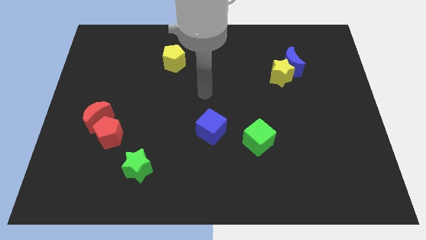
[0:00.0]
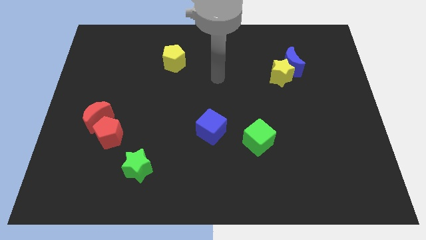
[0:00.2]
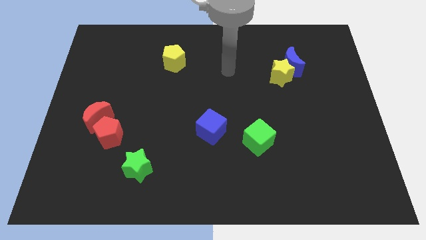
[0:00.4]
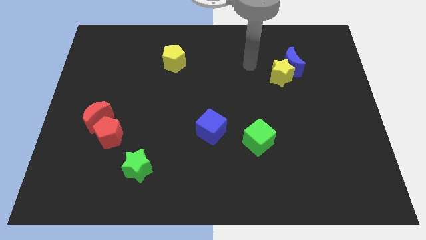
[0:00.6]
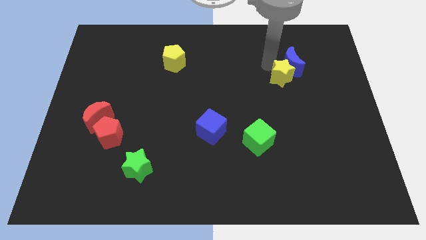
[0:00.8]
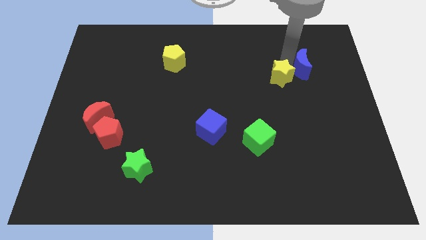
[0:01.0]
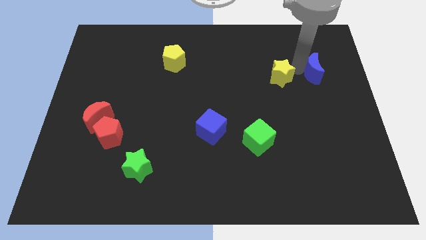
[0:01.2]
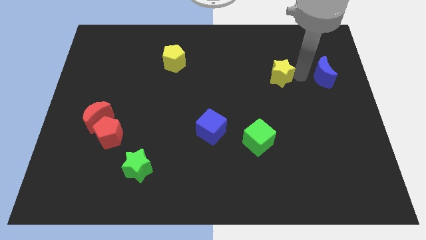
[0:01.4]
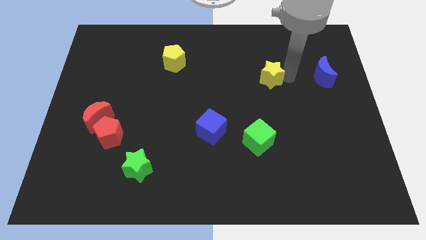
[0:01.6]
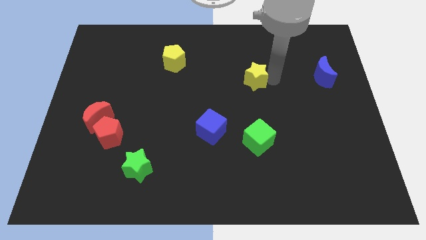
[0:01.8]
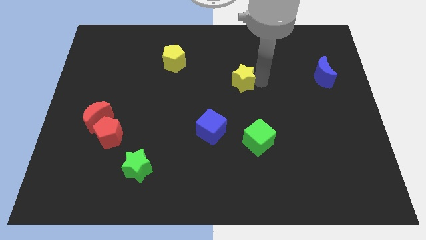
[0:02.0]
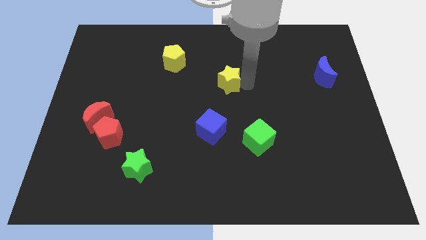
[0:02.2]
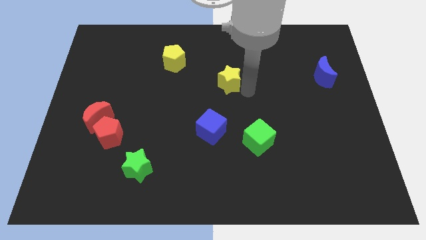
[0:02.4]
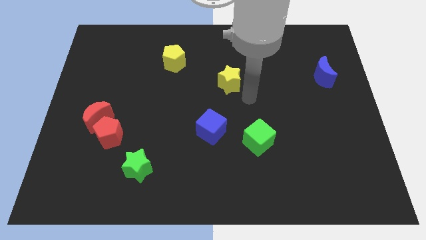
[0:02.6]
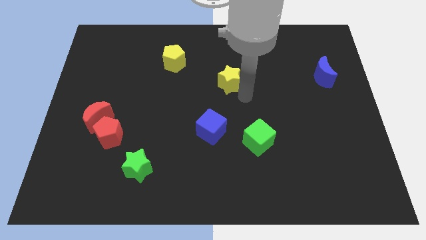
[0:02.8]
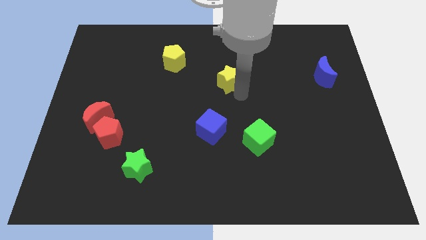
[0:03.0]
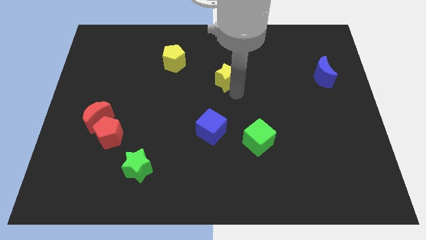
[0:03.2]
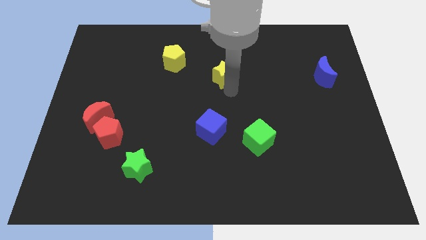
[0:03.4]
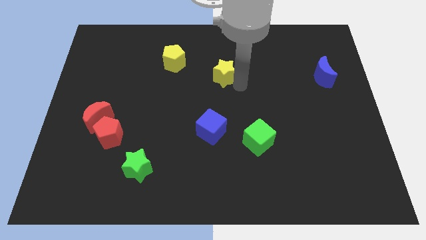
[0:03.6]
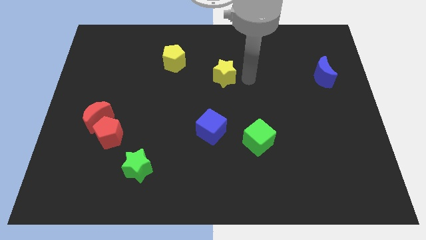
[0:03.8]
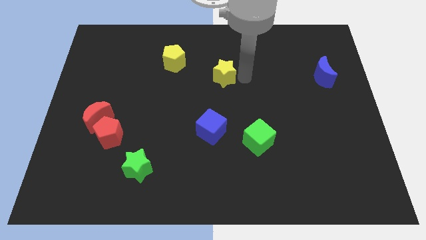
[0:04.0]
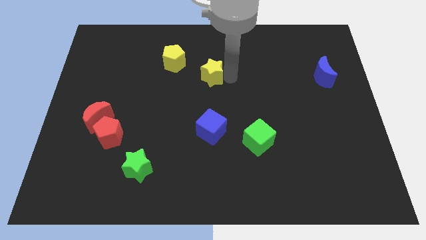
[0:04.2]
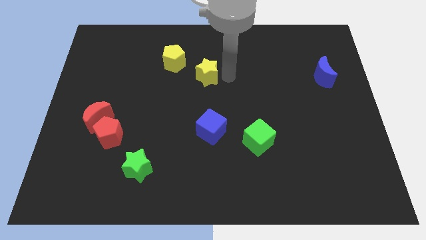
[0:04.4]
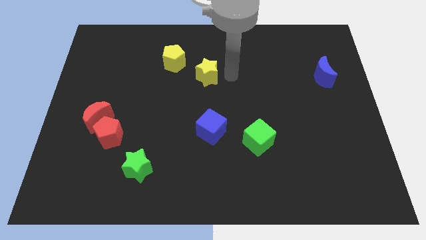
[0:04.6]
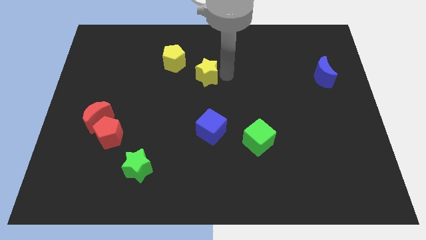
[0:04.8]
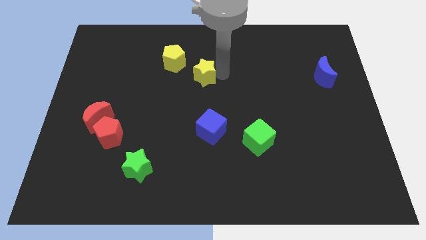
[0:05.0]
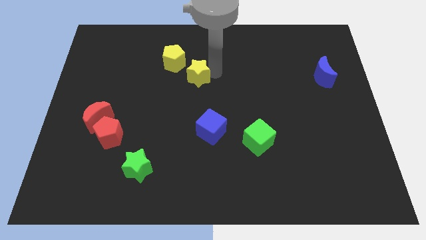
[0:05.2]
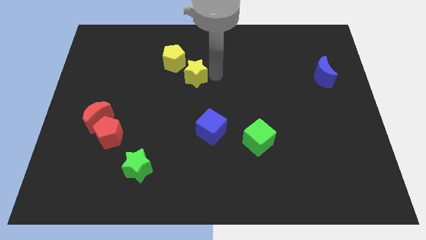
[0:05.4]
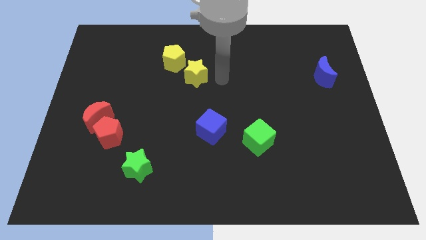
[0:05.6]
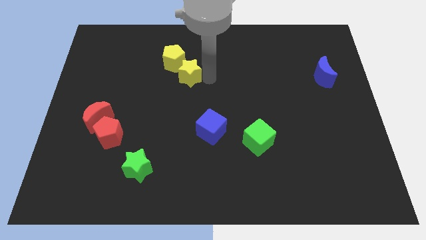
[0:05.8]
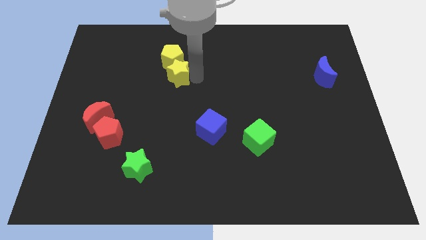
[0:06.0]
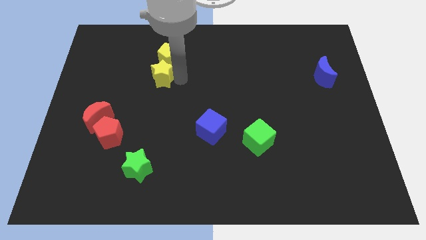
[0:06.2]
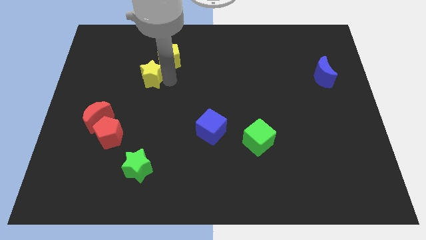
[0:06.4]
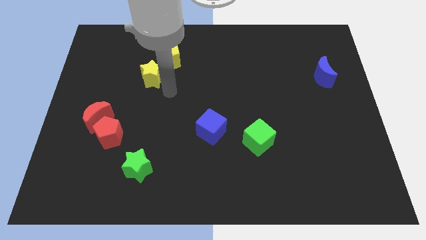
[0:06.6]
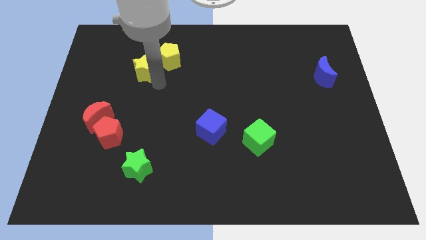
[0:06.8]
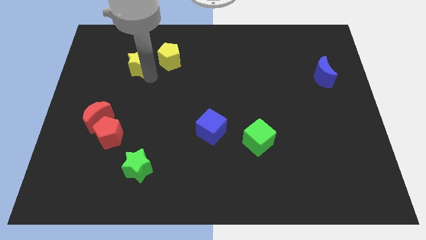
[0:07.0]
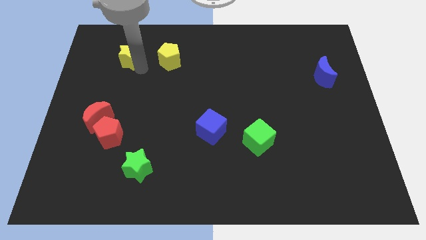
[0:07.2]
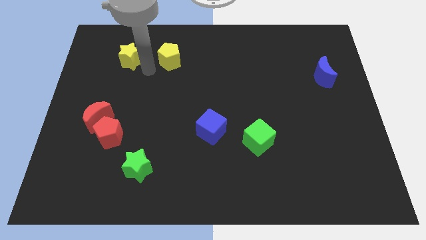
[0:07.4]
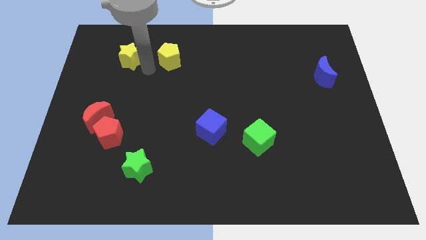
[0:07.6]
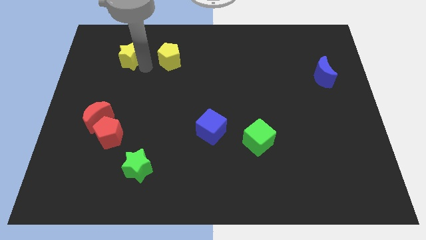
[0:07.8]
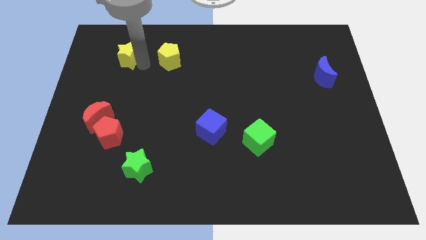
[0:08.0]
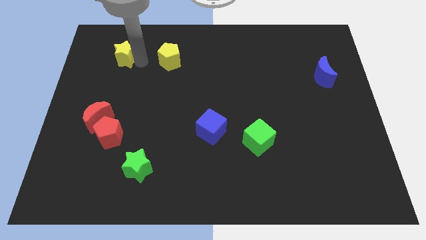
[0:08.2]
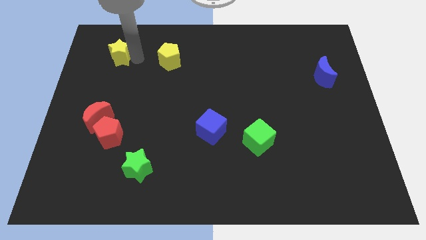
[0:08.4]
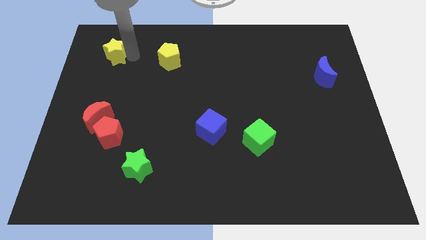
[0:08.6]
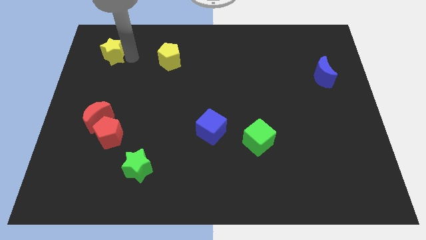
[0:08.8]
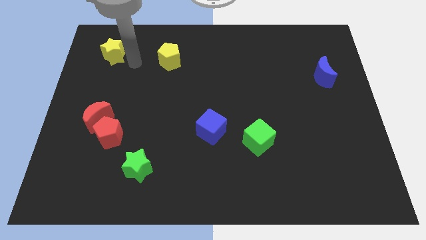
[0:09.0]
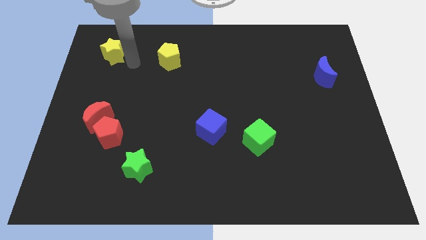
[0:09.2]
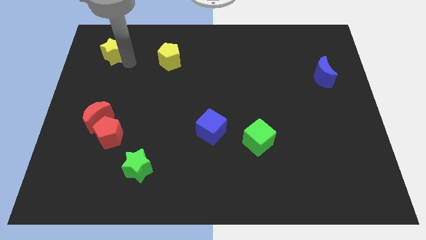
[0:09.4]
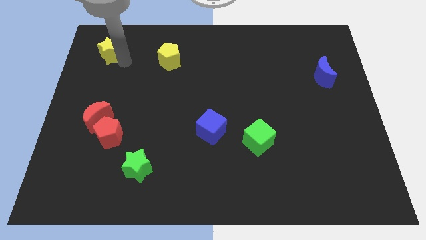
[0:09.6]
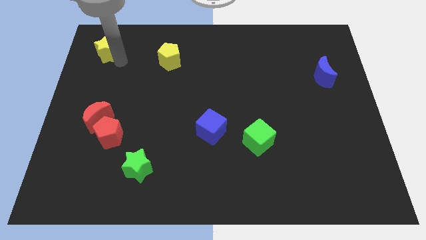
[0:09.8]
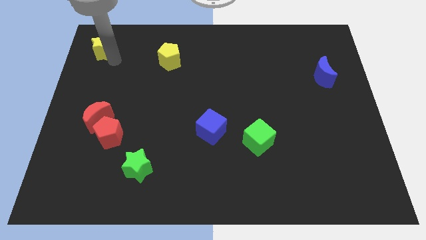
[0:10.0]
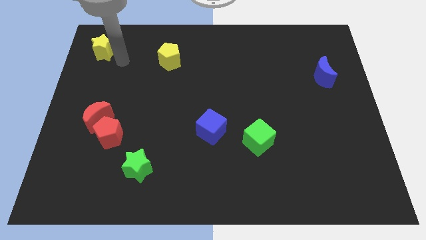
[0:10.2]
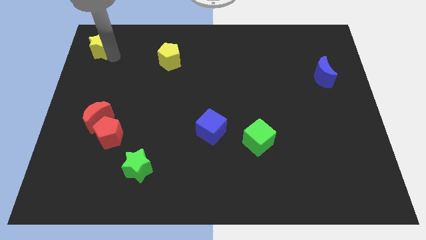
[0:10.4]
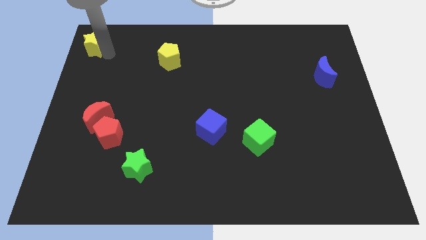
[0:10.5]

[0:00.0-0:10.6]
move the yellow star to the top left corner

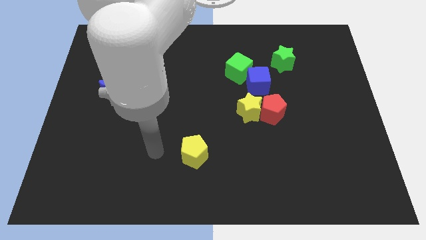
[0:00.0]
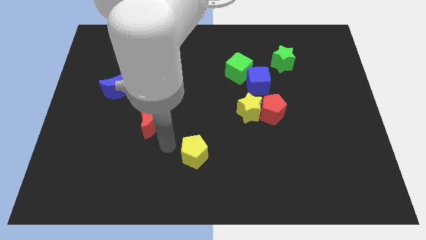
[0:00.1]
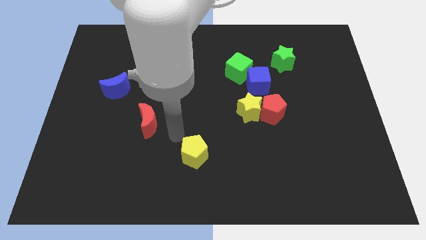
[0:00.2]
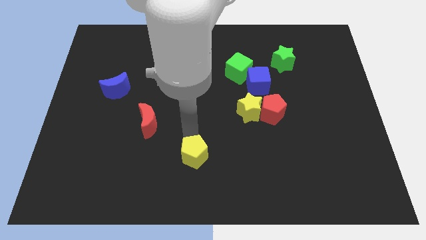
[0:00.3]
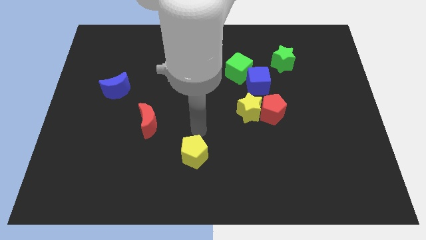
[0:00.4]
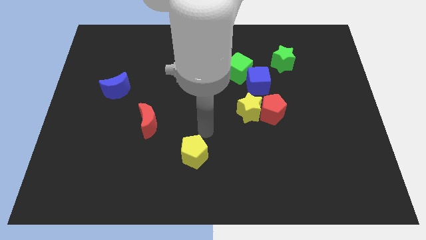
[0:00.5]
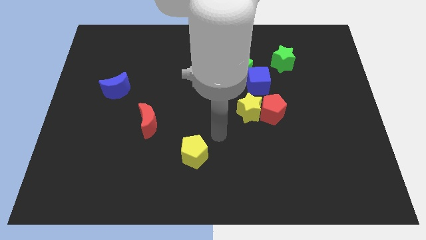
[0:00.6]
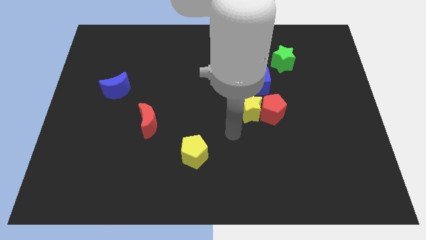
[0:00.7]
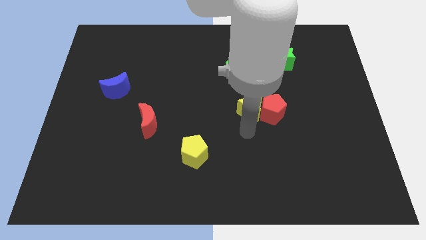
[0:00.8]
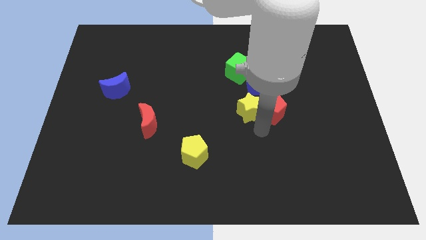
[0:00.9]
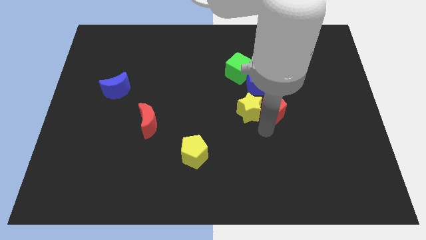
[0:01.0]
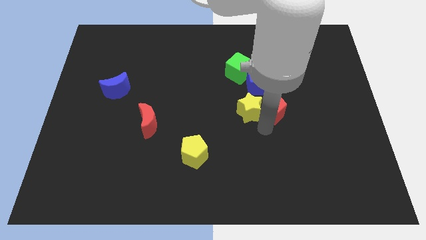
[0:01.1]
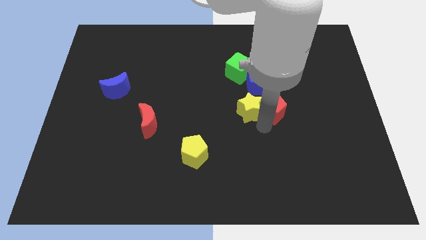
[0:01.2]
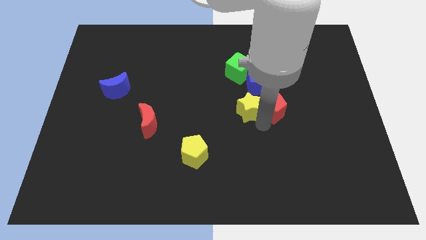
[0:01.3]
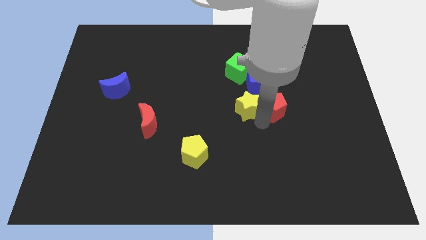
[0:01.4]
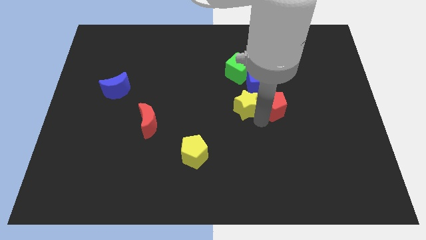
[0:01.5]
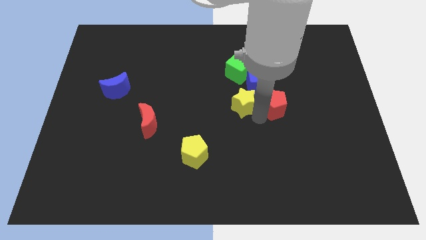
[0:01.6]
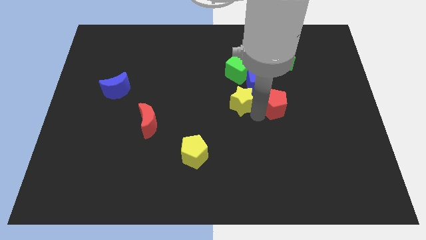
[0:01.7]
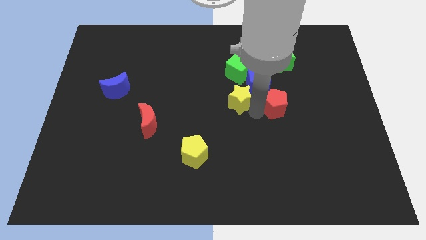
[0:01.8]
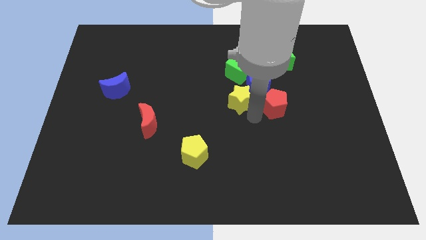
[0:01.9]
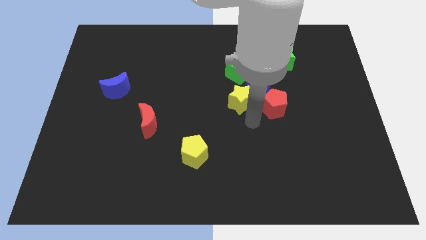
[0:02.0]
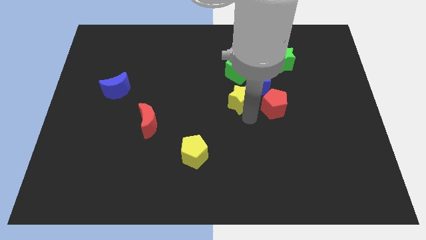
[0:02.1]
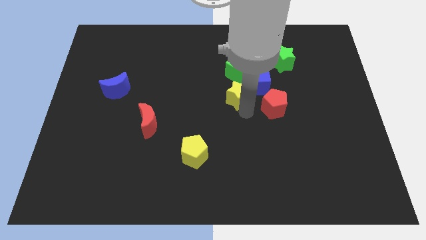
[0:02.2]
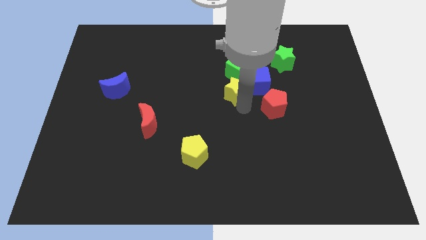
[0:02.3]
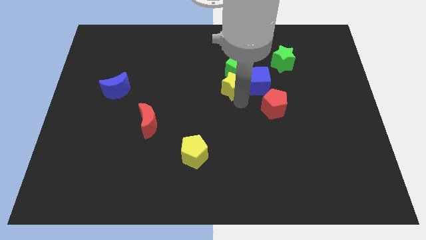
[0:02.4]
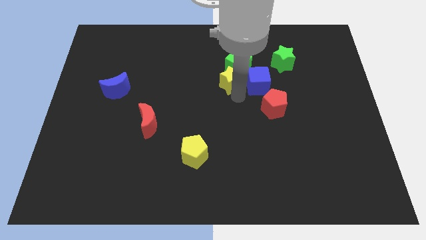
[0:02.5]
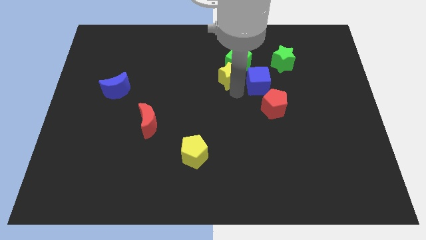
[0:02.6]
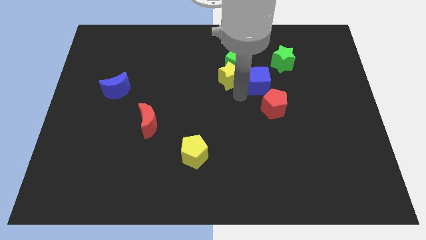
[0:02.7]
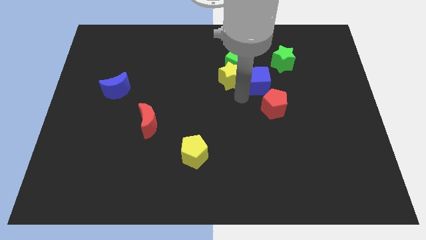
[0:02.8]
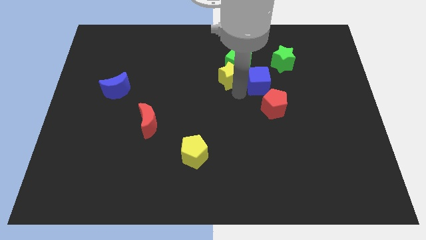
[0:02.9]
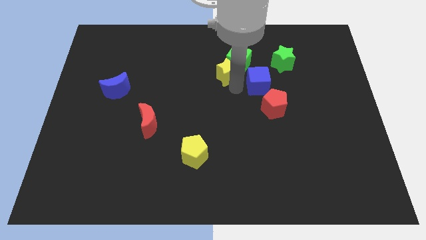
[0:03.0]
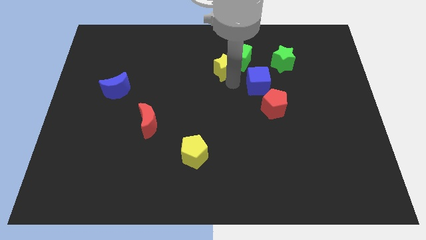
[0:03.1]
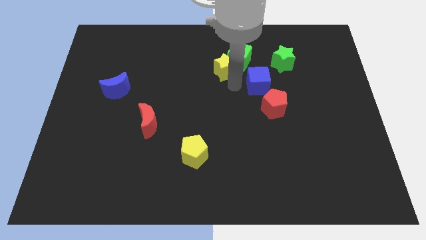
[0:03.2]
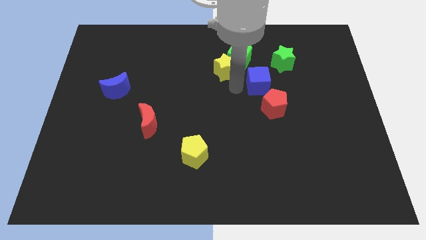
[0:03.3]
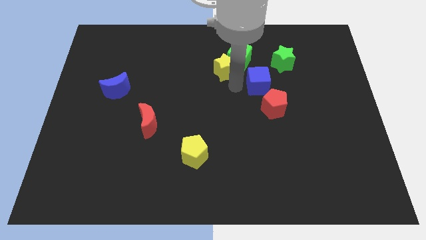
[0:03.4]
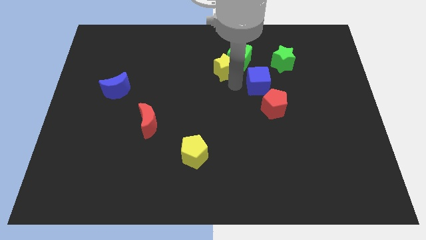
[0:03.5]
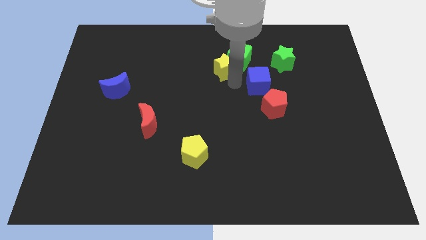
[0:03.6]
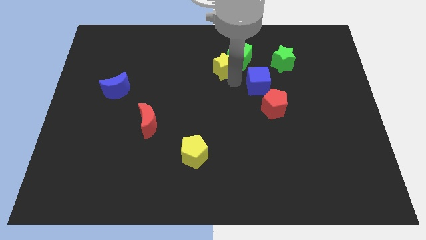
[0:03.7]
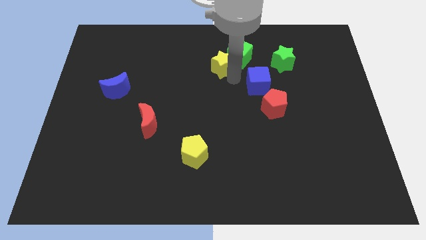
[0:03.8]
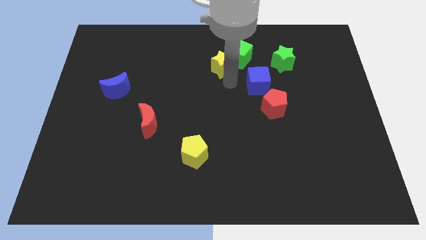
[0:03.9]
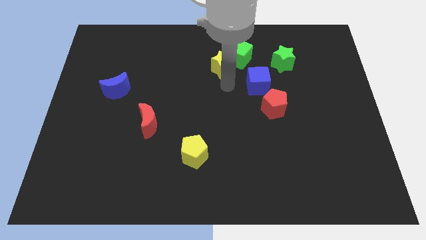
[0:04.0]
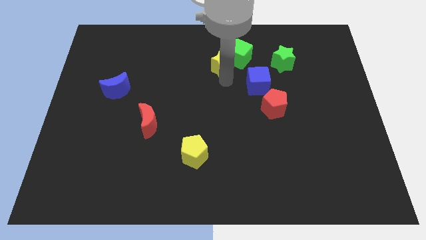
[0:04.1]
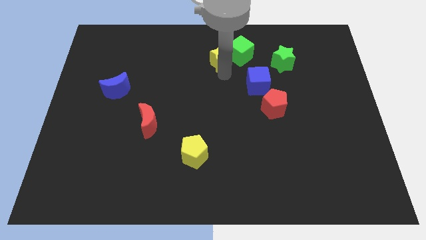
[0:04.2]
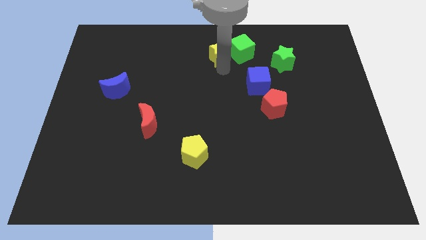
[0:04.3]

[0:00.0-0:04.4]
put the yellow star to the top
